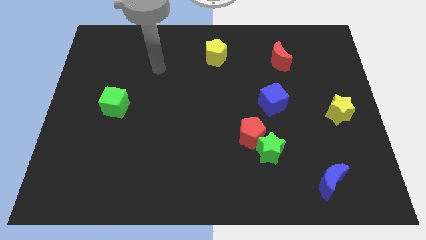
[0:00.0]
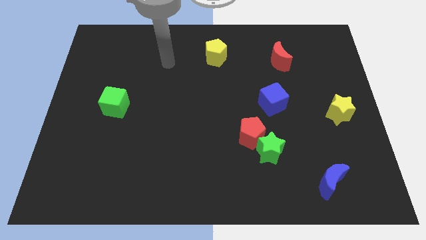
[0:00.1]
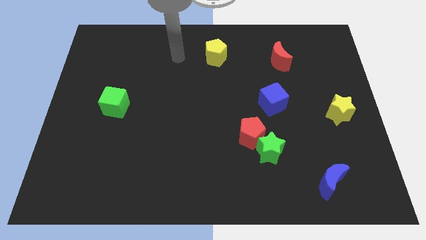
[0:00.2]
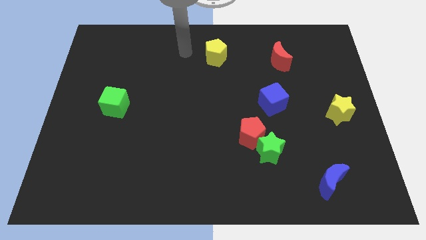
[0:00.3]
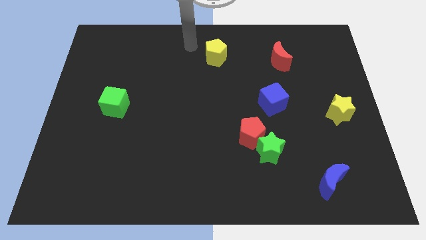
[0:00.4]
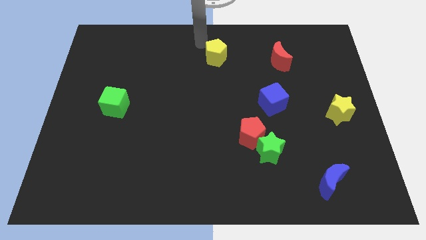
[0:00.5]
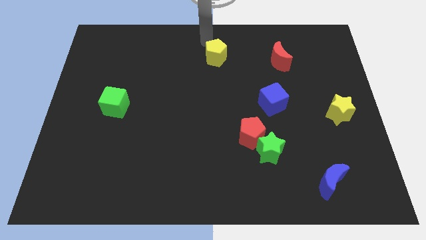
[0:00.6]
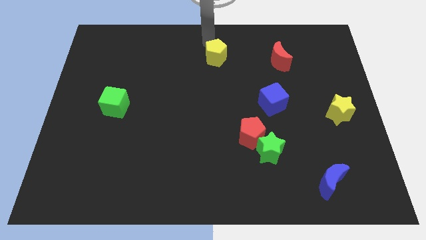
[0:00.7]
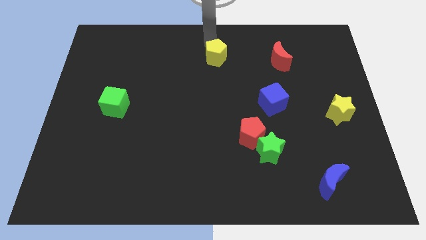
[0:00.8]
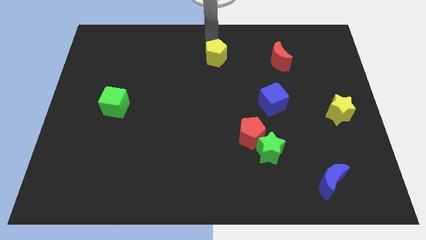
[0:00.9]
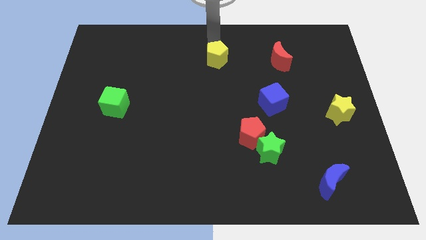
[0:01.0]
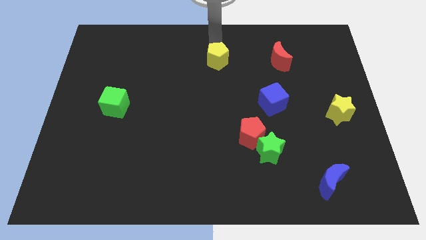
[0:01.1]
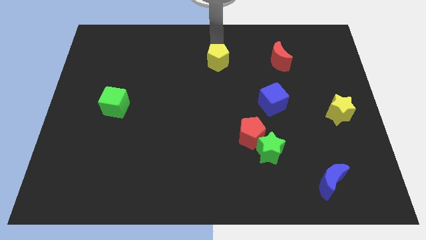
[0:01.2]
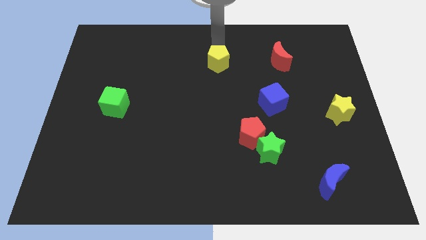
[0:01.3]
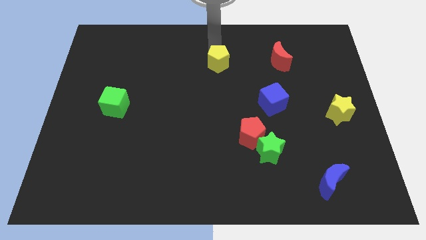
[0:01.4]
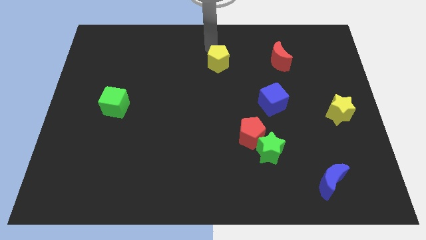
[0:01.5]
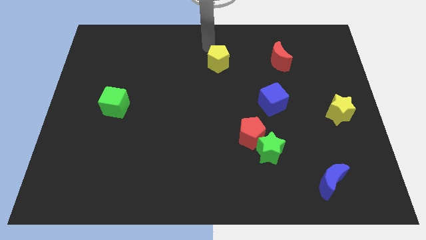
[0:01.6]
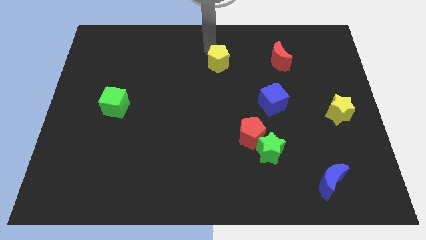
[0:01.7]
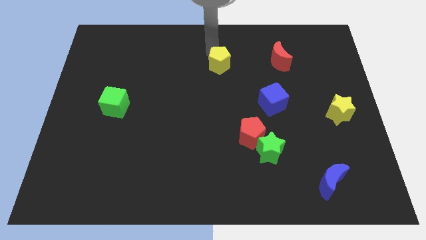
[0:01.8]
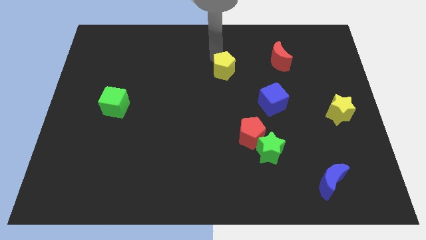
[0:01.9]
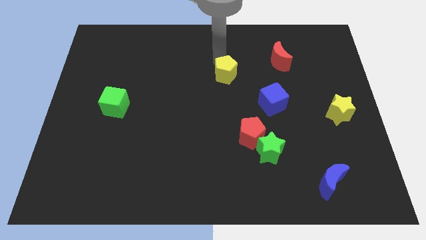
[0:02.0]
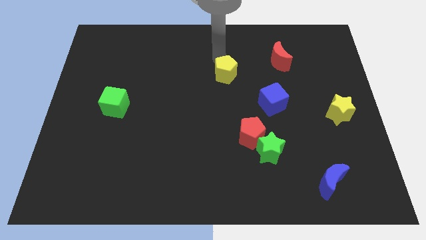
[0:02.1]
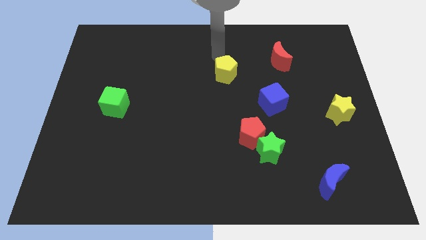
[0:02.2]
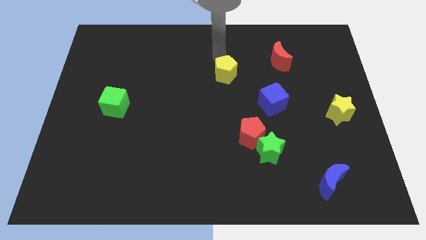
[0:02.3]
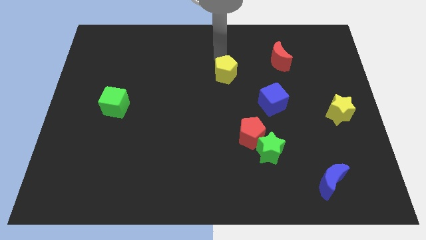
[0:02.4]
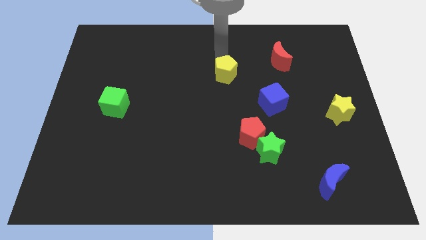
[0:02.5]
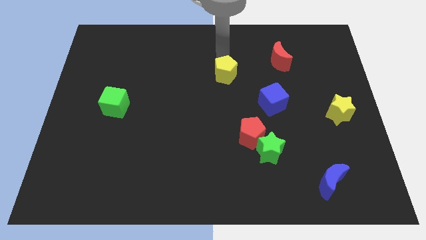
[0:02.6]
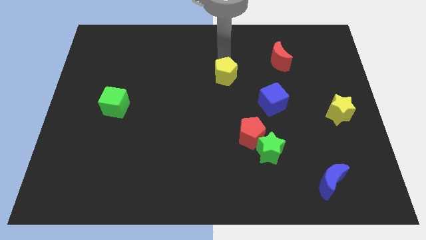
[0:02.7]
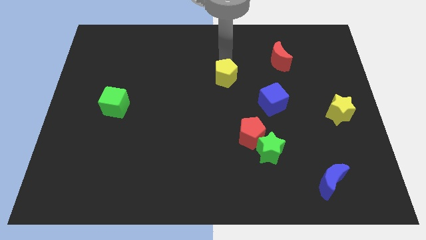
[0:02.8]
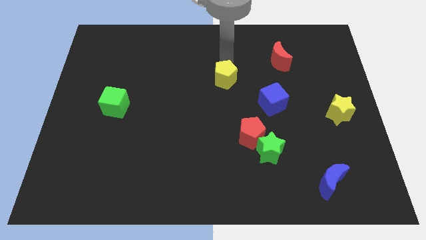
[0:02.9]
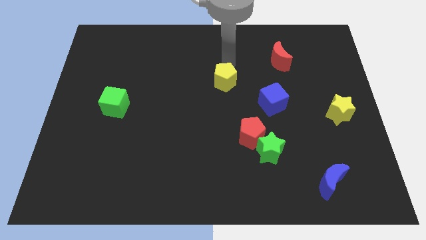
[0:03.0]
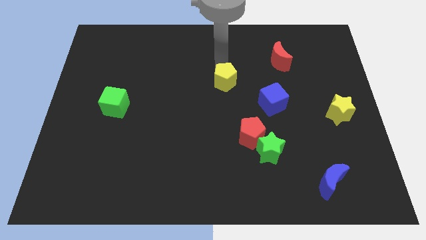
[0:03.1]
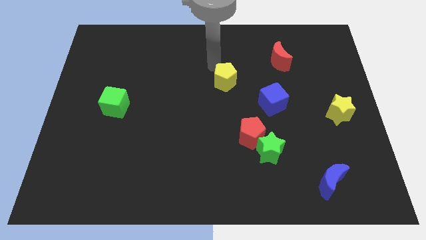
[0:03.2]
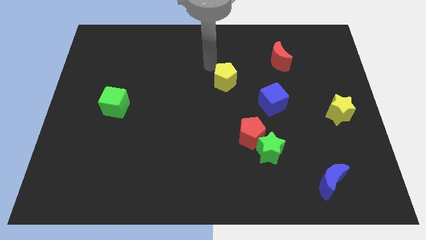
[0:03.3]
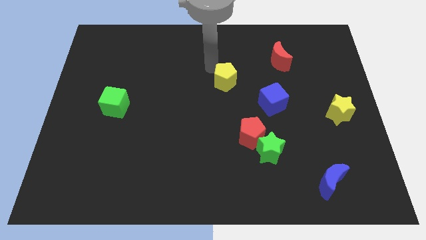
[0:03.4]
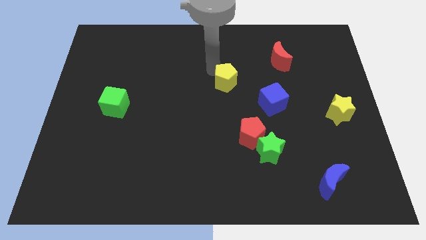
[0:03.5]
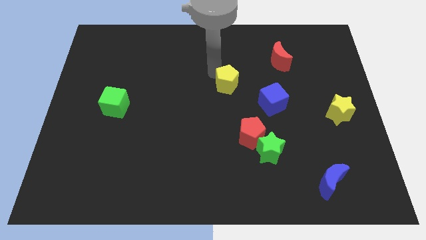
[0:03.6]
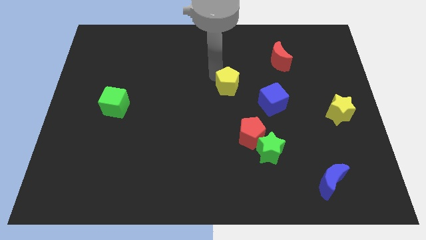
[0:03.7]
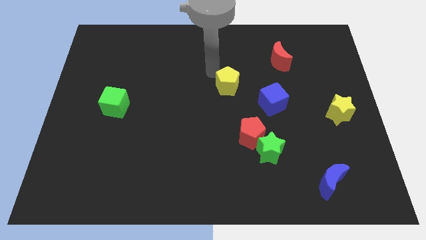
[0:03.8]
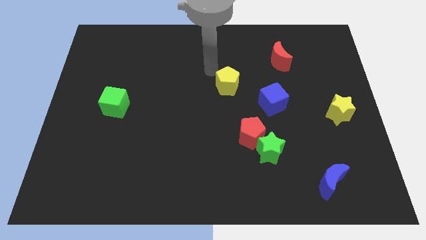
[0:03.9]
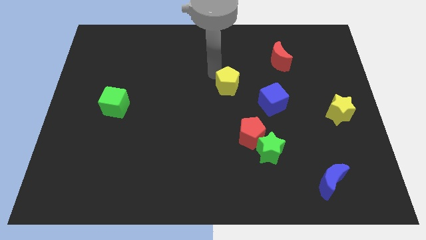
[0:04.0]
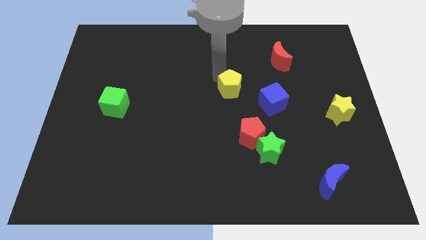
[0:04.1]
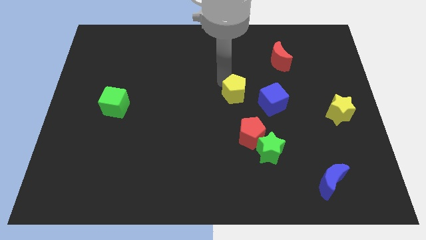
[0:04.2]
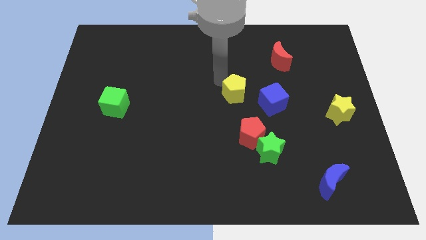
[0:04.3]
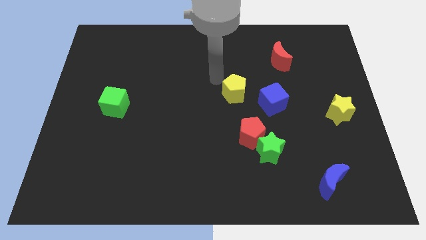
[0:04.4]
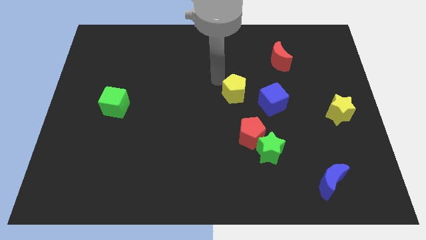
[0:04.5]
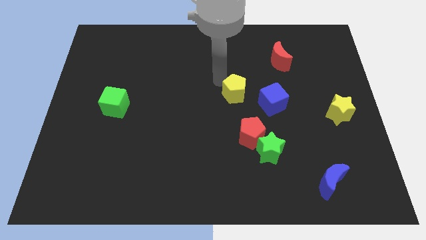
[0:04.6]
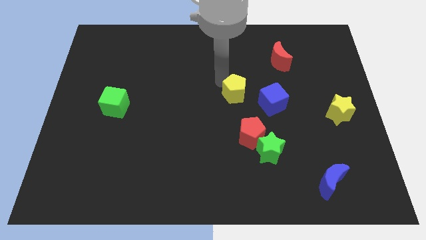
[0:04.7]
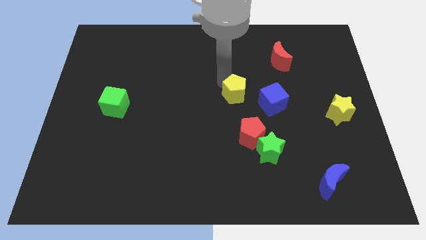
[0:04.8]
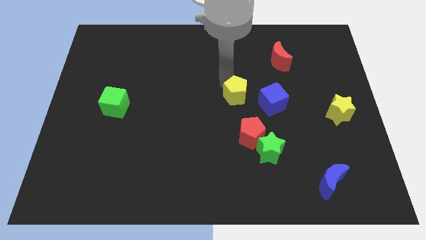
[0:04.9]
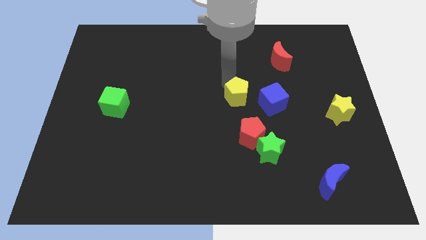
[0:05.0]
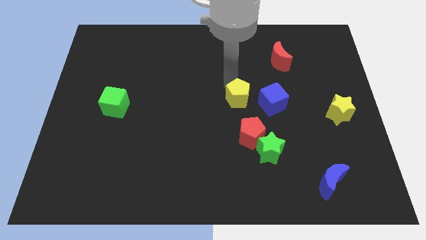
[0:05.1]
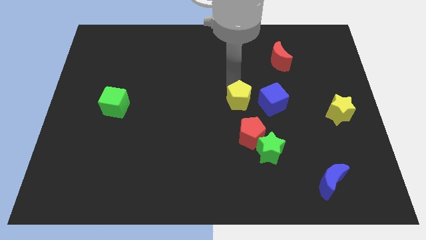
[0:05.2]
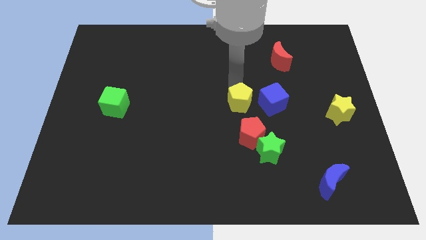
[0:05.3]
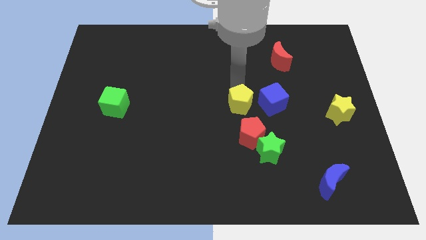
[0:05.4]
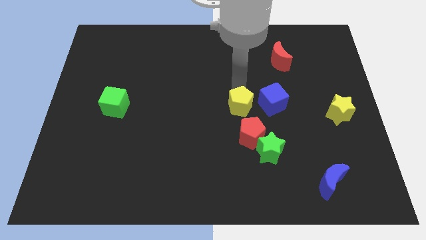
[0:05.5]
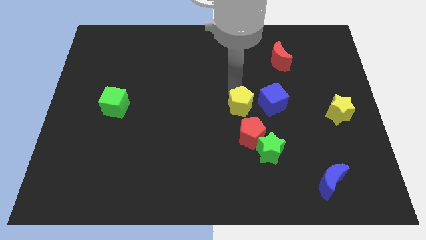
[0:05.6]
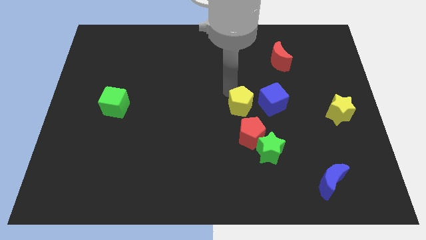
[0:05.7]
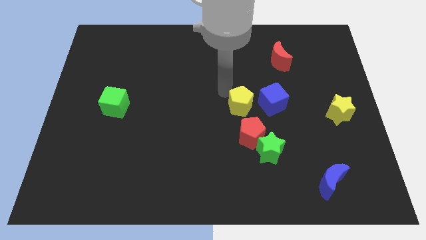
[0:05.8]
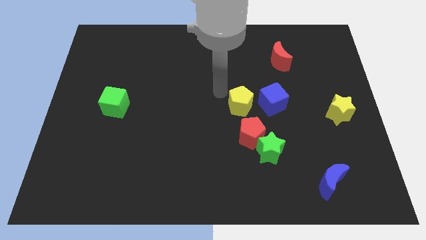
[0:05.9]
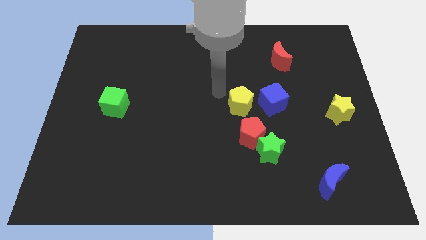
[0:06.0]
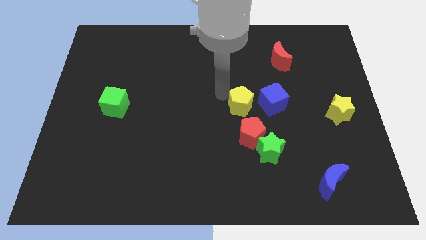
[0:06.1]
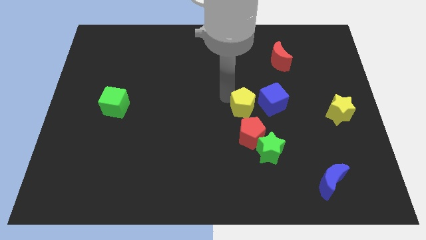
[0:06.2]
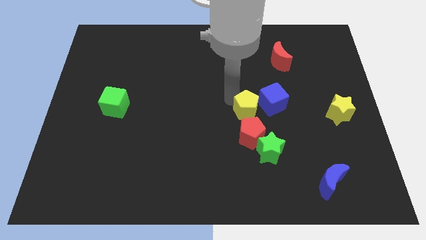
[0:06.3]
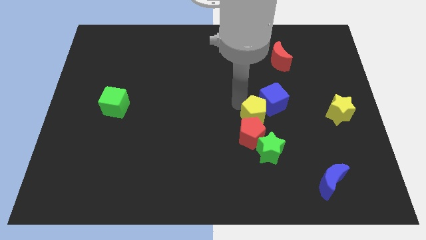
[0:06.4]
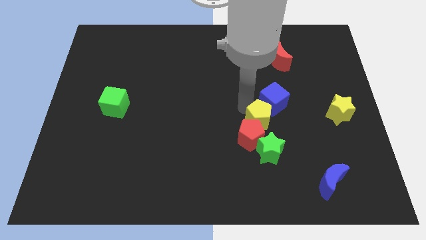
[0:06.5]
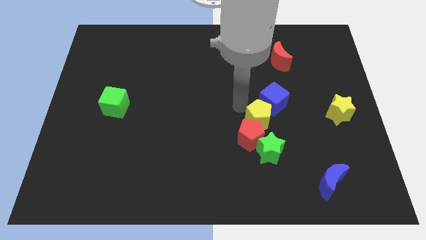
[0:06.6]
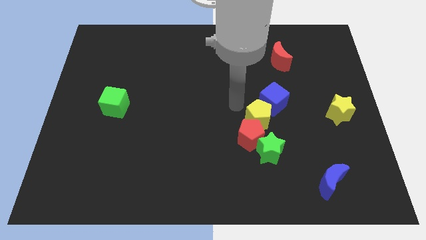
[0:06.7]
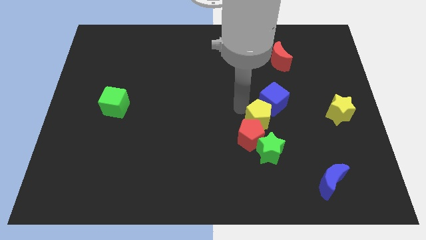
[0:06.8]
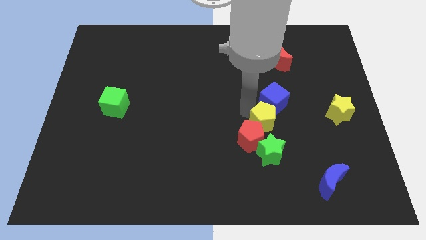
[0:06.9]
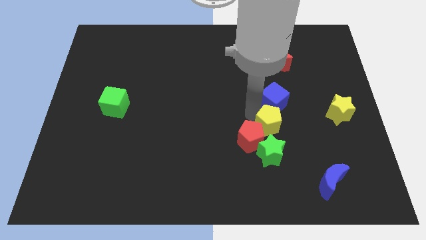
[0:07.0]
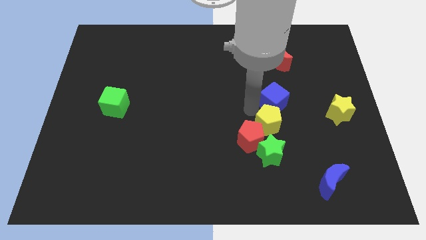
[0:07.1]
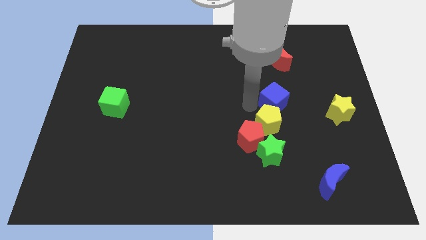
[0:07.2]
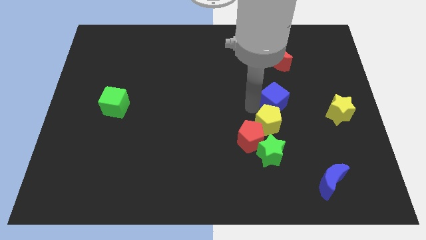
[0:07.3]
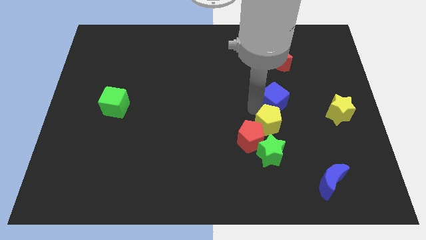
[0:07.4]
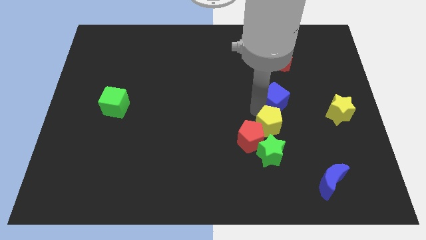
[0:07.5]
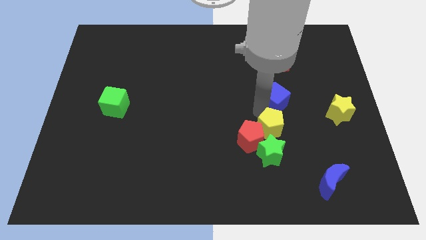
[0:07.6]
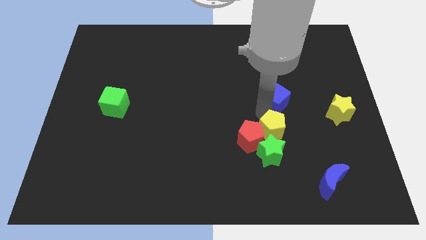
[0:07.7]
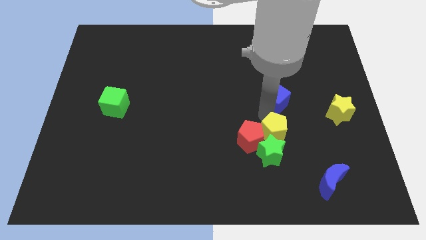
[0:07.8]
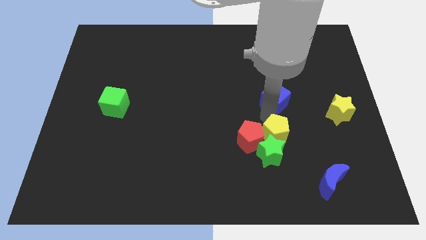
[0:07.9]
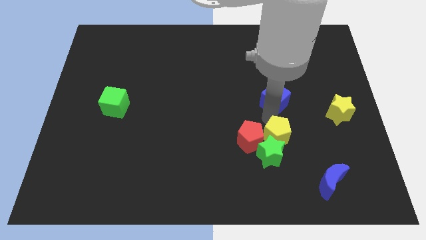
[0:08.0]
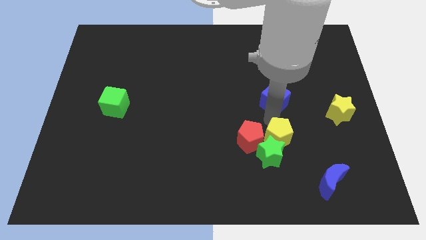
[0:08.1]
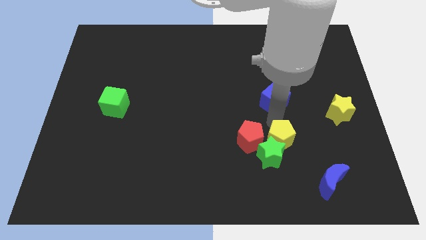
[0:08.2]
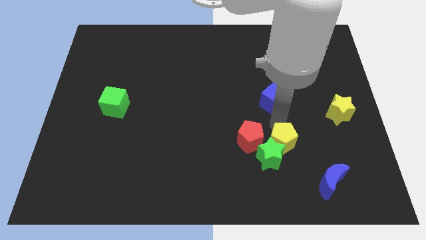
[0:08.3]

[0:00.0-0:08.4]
move the yellow pentagon to the right of the green star
